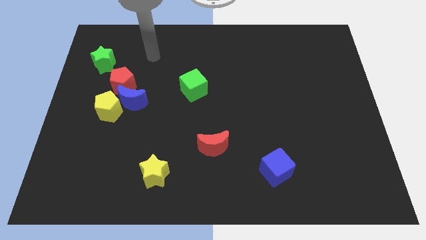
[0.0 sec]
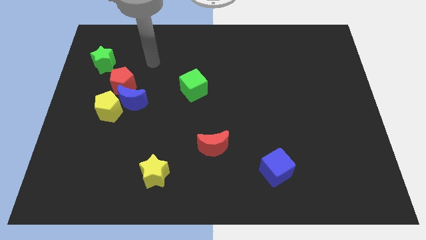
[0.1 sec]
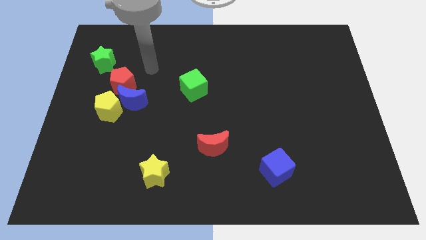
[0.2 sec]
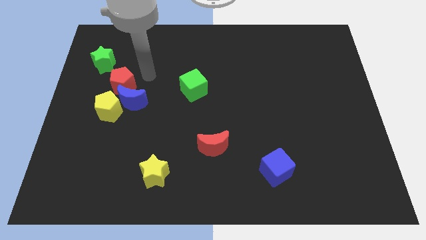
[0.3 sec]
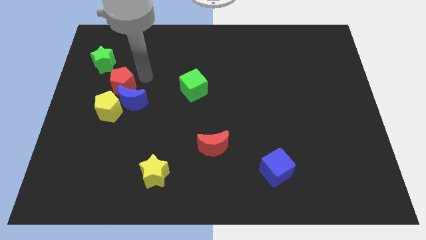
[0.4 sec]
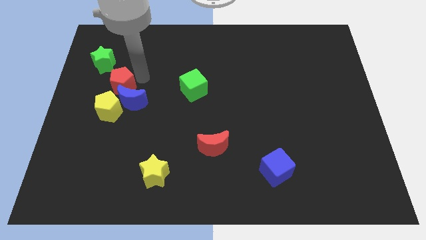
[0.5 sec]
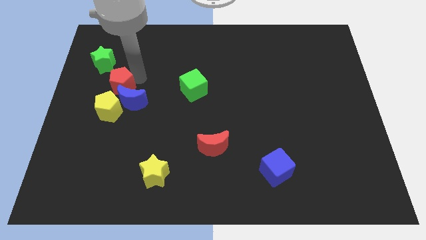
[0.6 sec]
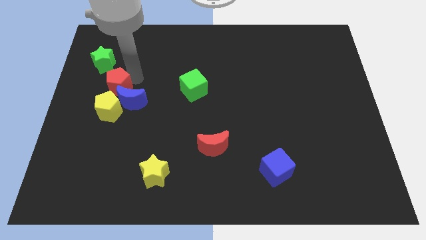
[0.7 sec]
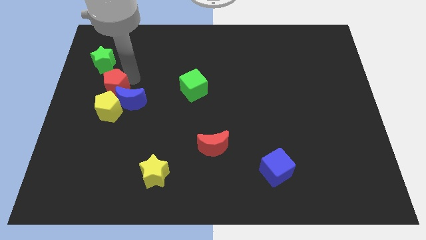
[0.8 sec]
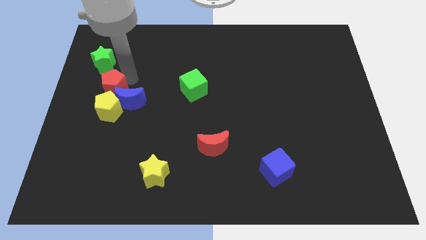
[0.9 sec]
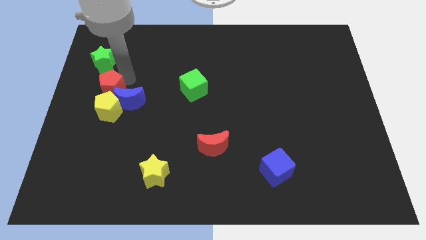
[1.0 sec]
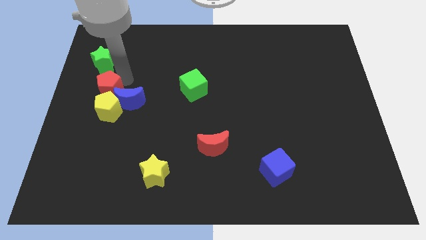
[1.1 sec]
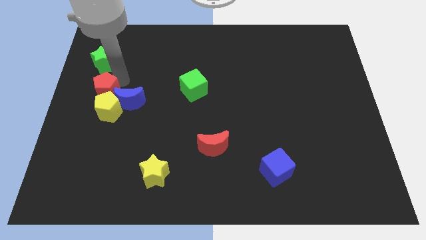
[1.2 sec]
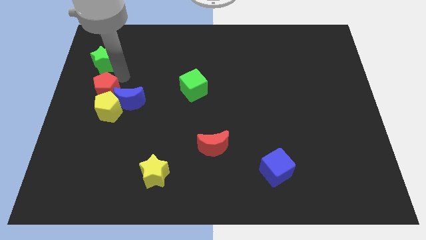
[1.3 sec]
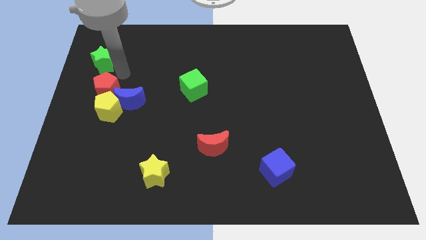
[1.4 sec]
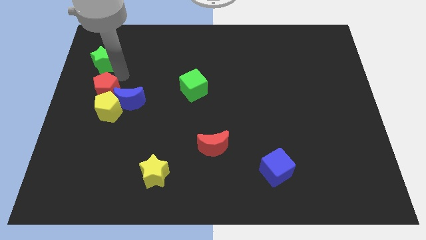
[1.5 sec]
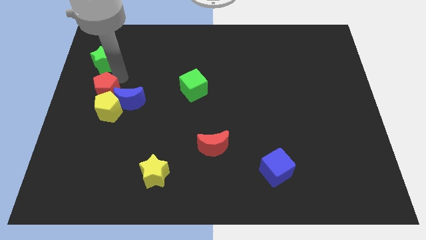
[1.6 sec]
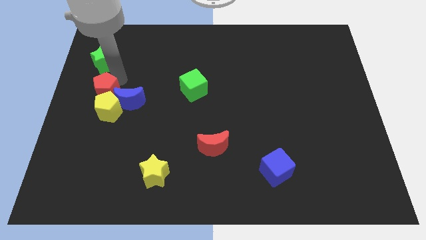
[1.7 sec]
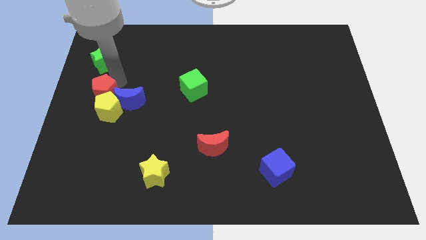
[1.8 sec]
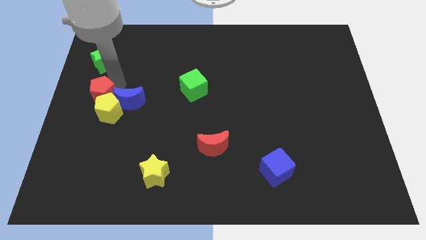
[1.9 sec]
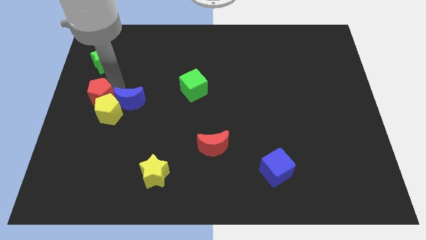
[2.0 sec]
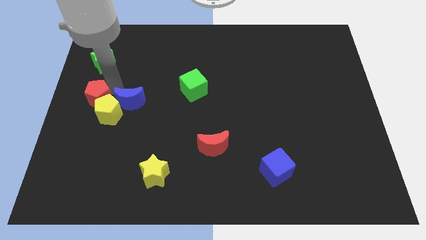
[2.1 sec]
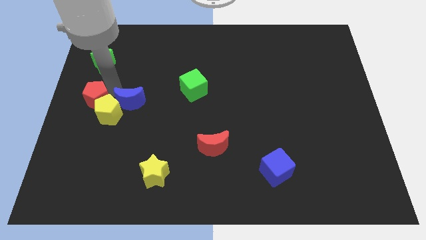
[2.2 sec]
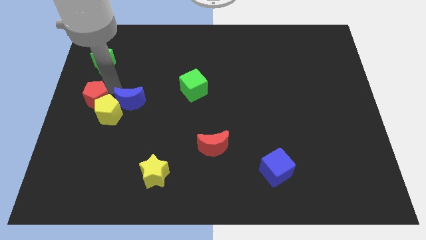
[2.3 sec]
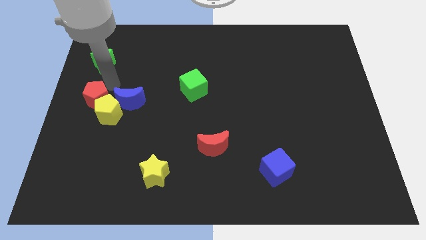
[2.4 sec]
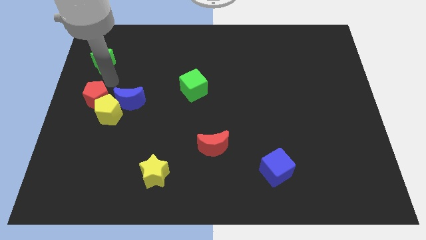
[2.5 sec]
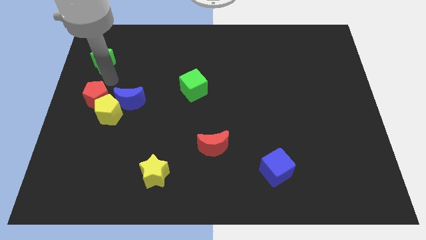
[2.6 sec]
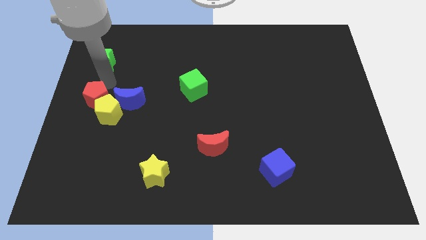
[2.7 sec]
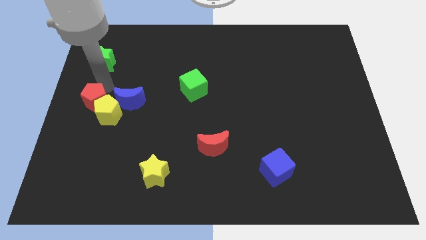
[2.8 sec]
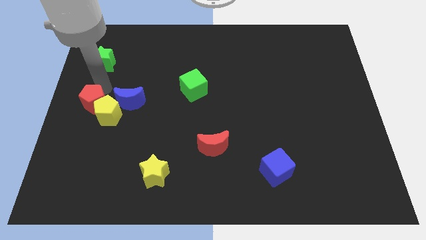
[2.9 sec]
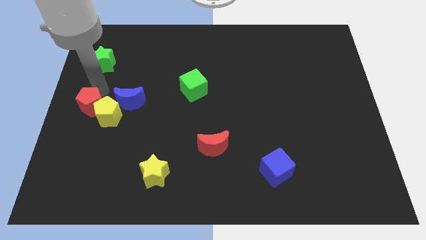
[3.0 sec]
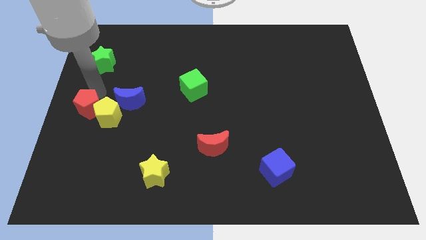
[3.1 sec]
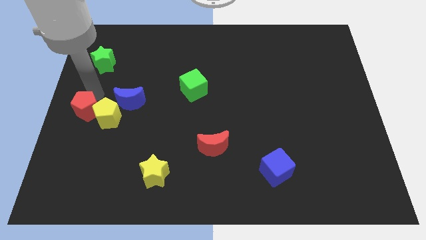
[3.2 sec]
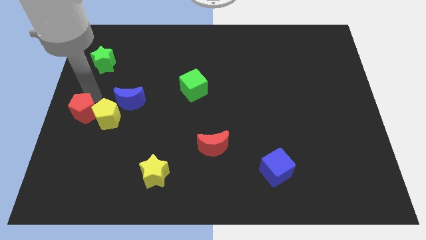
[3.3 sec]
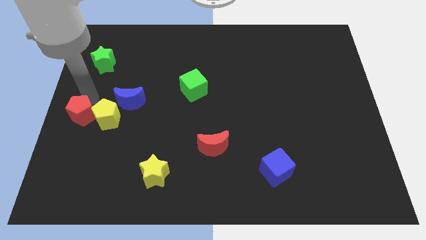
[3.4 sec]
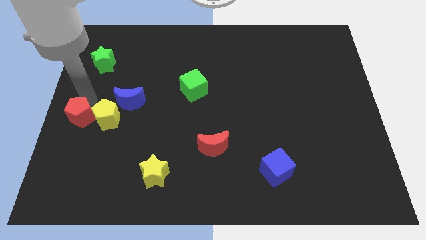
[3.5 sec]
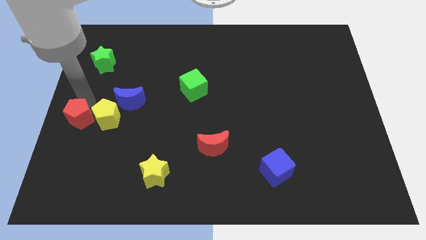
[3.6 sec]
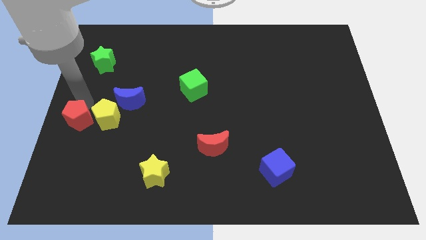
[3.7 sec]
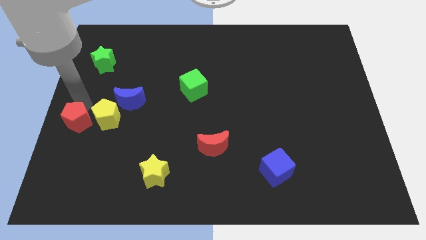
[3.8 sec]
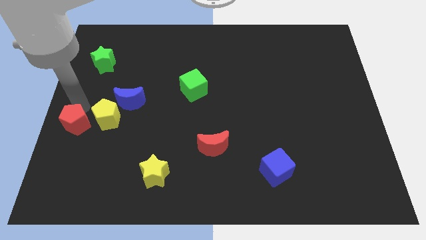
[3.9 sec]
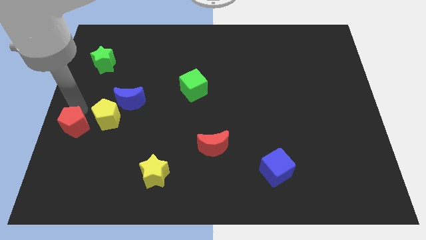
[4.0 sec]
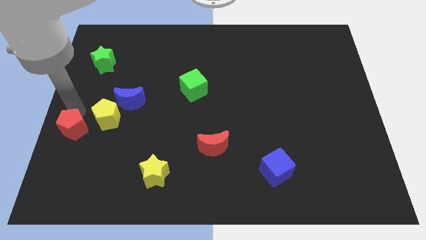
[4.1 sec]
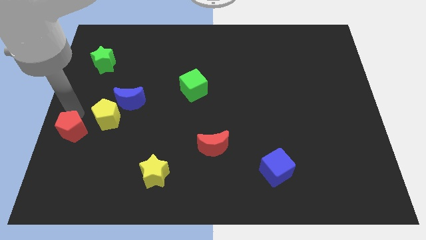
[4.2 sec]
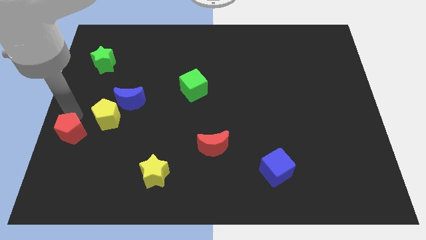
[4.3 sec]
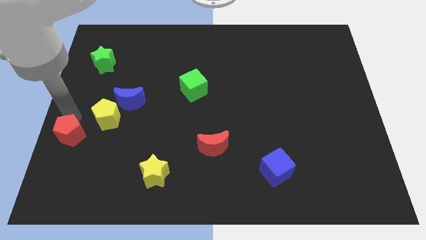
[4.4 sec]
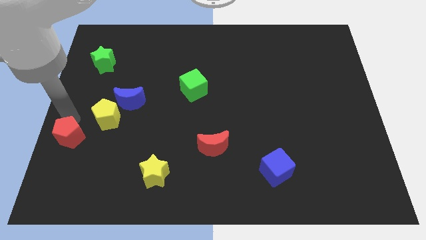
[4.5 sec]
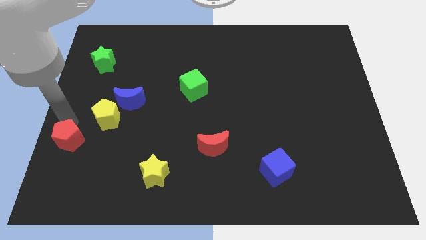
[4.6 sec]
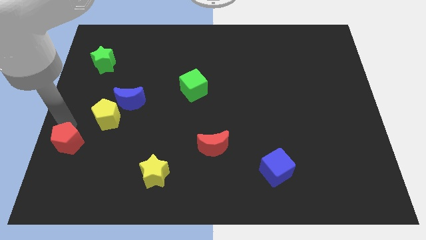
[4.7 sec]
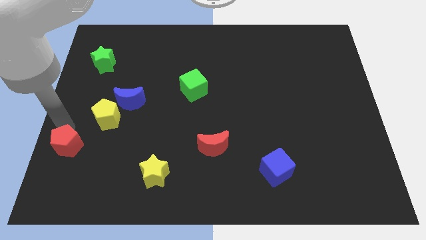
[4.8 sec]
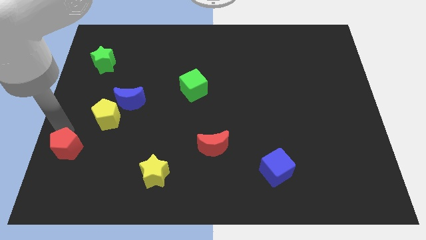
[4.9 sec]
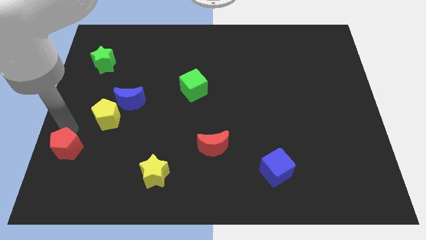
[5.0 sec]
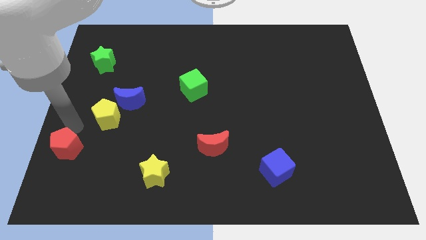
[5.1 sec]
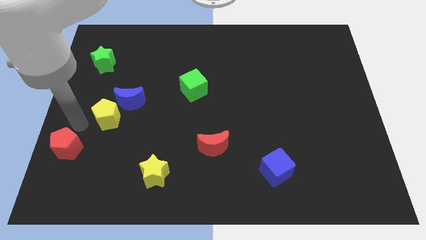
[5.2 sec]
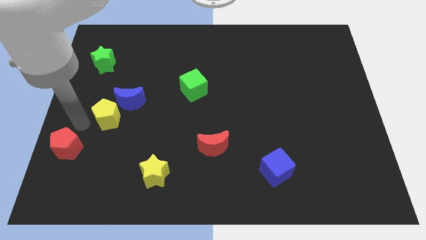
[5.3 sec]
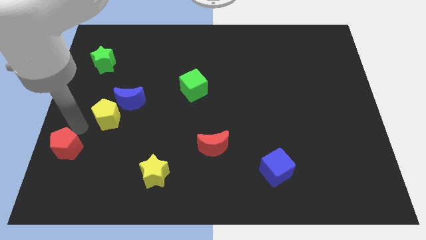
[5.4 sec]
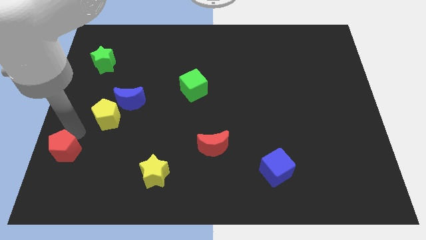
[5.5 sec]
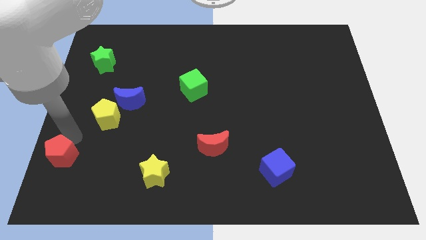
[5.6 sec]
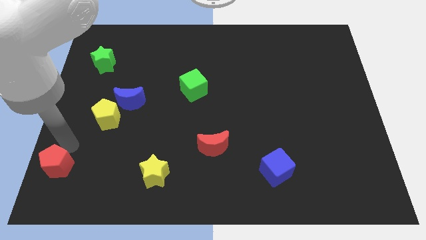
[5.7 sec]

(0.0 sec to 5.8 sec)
slide the red pentagon to the bottom left corner

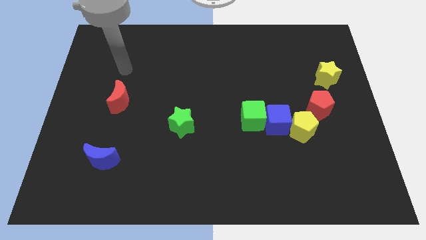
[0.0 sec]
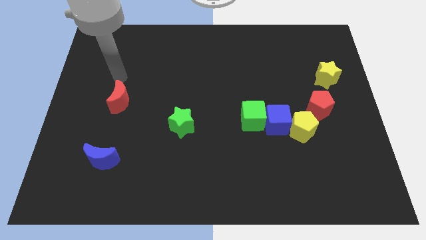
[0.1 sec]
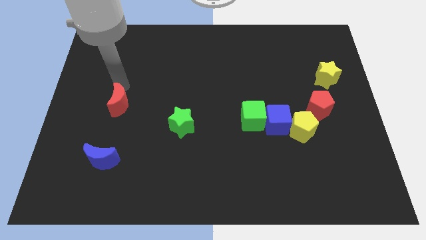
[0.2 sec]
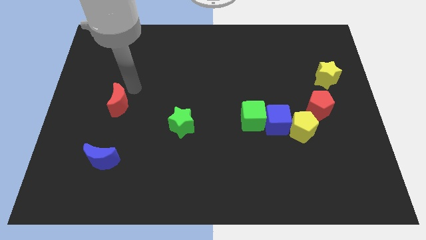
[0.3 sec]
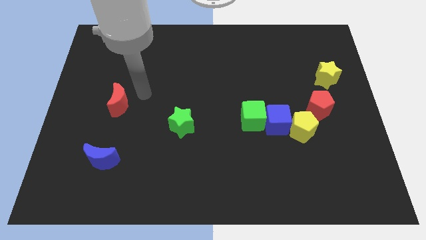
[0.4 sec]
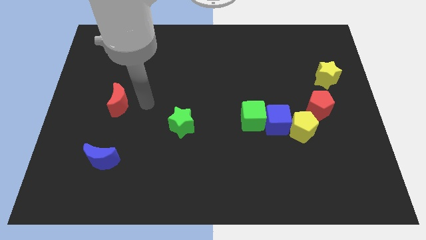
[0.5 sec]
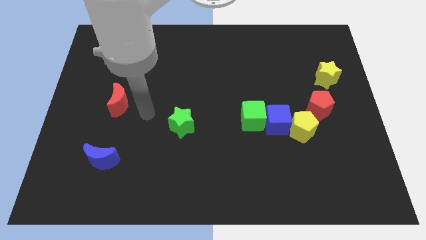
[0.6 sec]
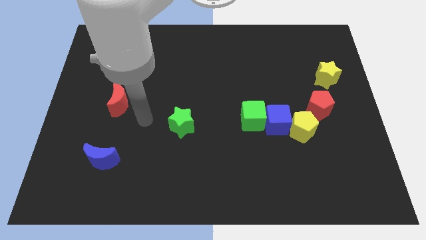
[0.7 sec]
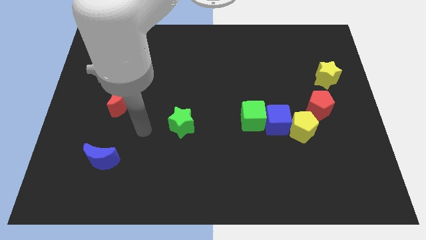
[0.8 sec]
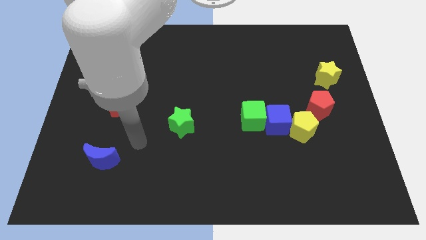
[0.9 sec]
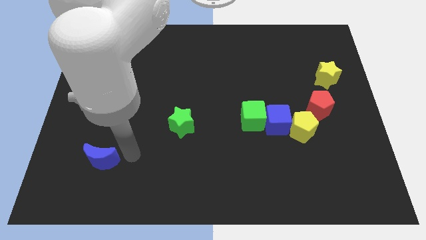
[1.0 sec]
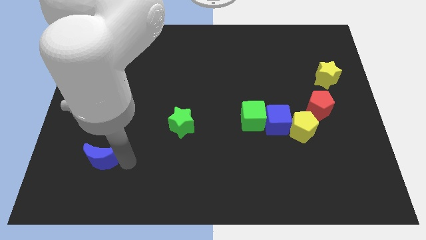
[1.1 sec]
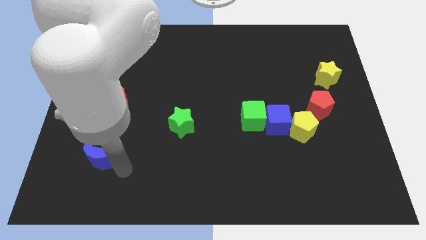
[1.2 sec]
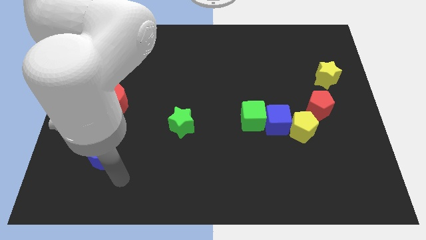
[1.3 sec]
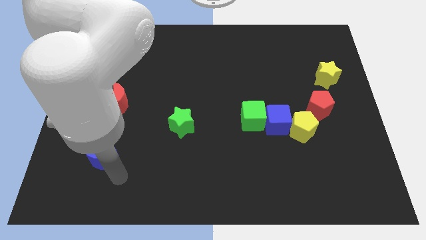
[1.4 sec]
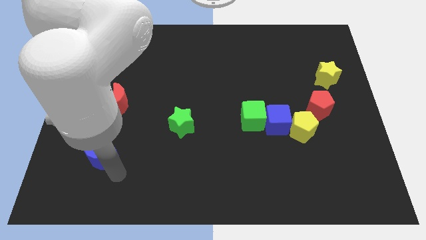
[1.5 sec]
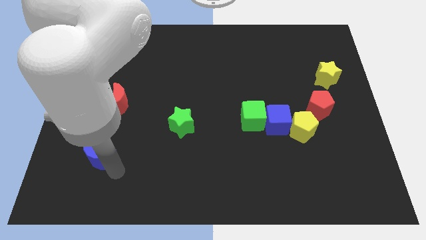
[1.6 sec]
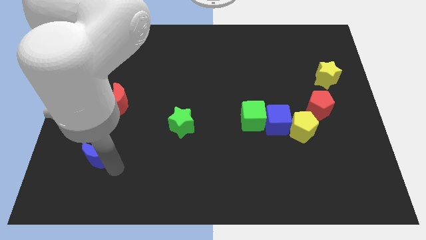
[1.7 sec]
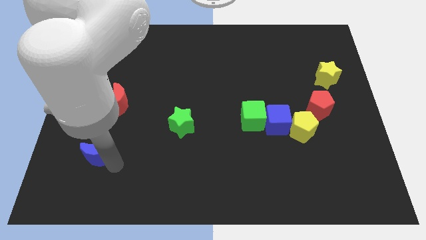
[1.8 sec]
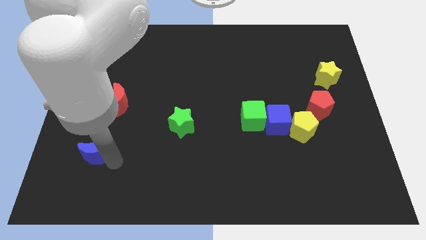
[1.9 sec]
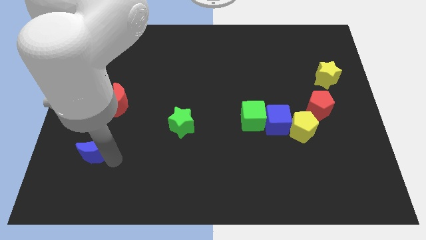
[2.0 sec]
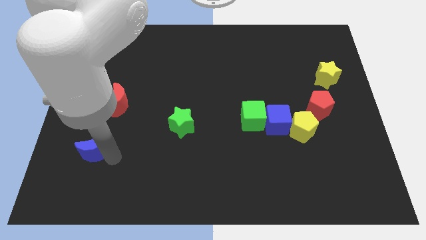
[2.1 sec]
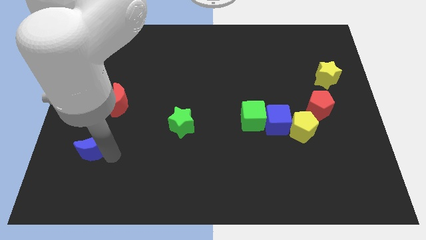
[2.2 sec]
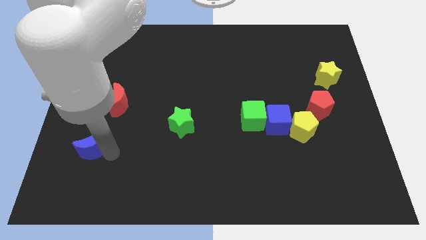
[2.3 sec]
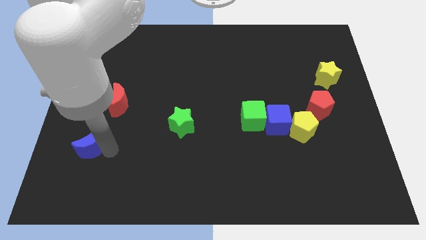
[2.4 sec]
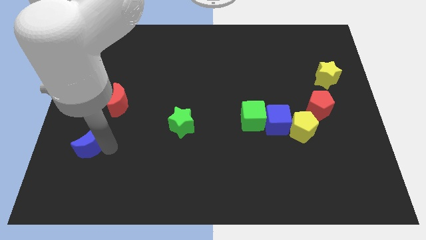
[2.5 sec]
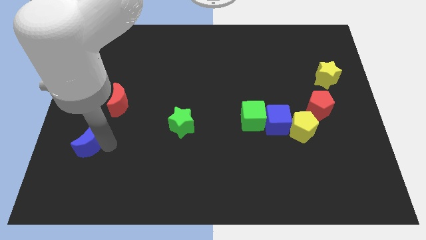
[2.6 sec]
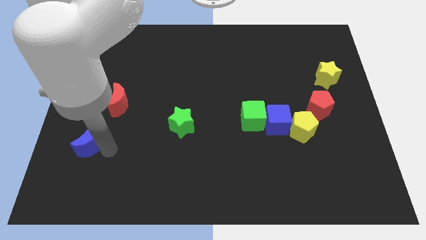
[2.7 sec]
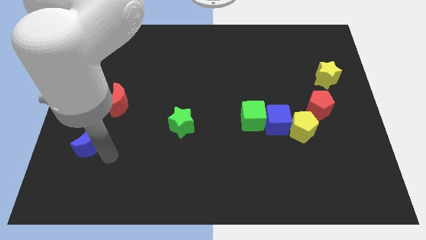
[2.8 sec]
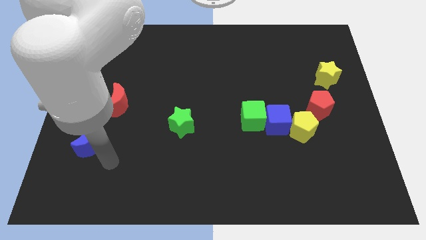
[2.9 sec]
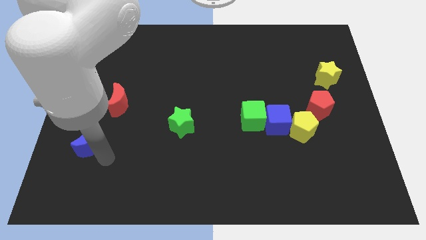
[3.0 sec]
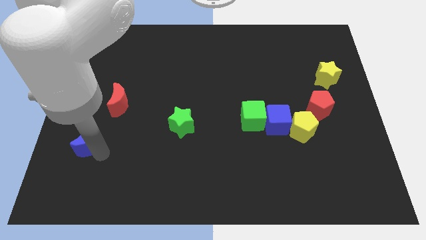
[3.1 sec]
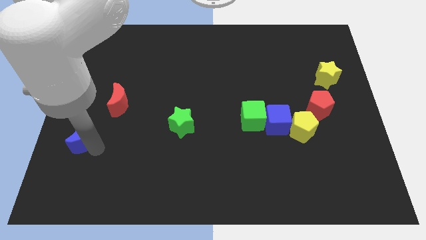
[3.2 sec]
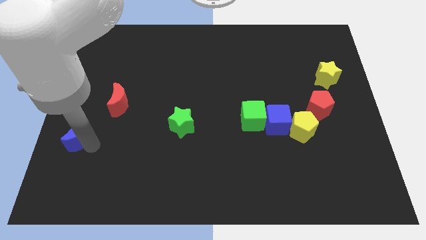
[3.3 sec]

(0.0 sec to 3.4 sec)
slide the blue moon to the left side
